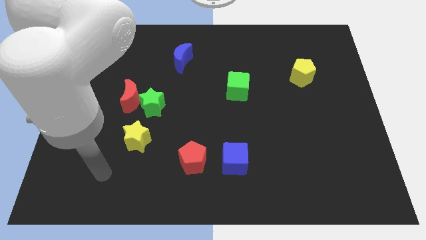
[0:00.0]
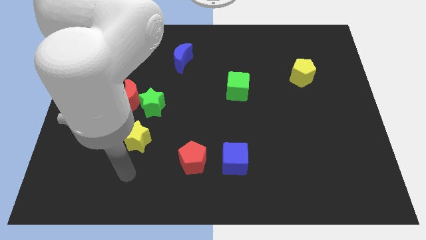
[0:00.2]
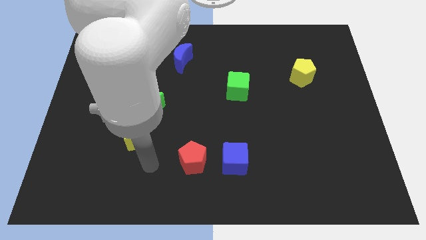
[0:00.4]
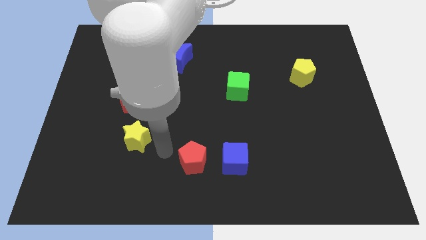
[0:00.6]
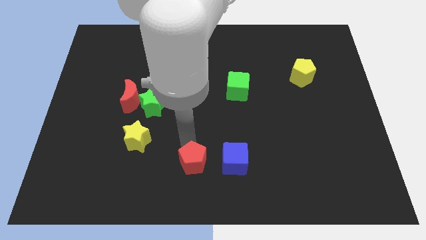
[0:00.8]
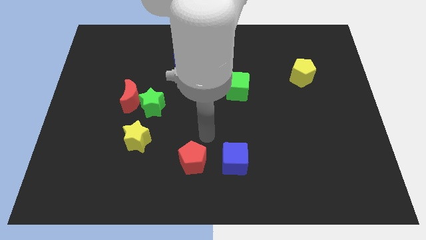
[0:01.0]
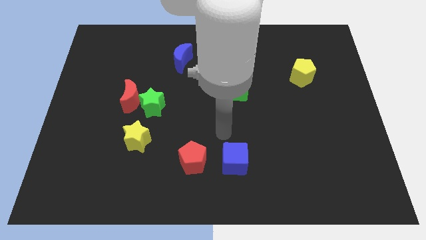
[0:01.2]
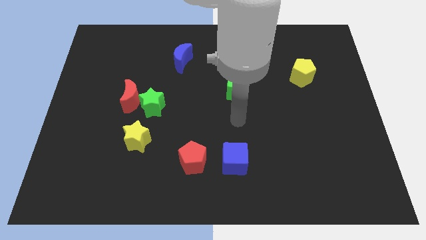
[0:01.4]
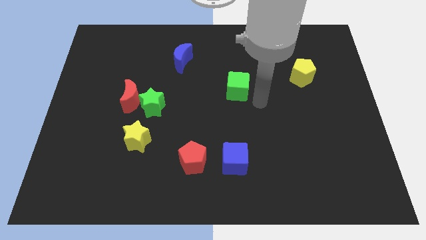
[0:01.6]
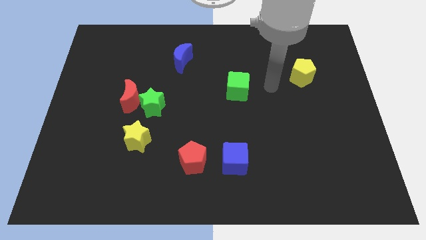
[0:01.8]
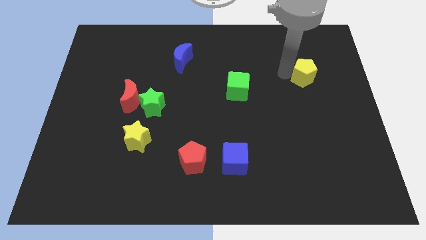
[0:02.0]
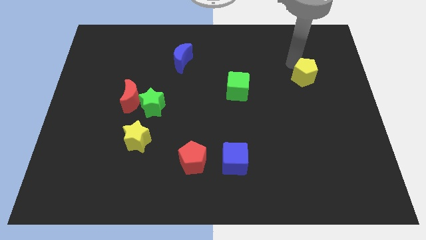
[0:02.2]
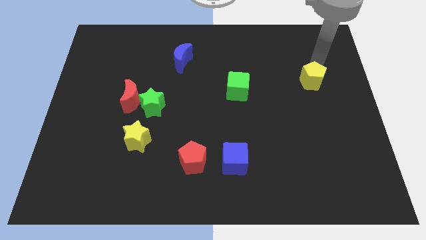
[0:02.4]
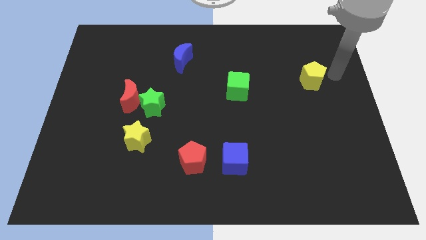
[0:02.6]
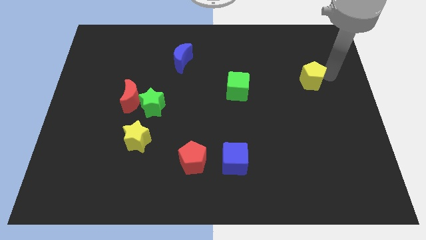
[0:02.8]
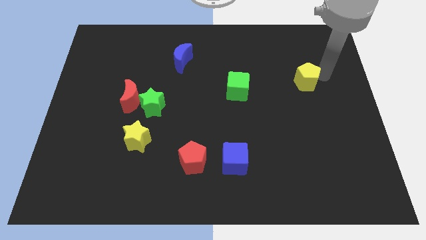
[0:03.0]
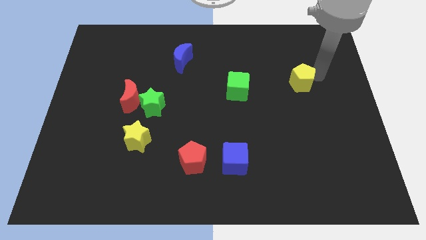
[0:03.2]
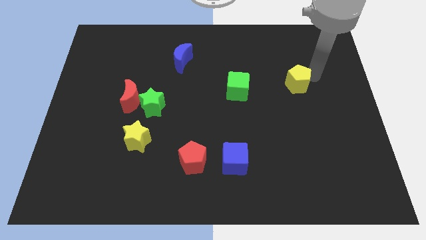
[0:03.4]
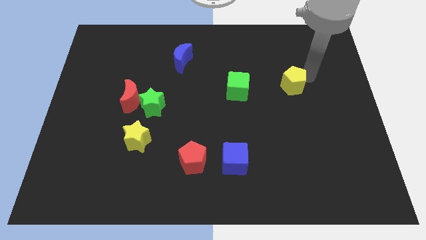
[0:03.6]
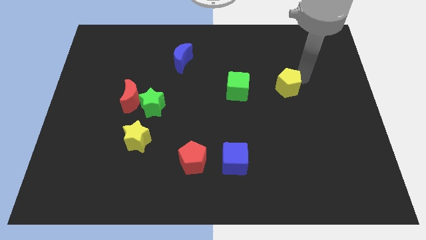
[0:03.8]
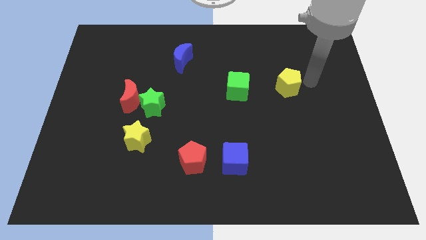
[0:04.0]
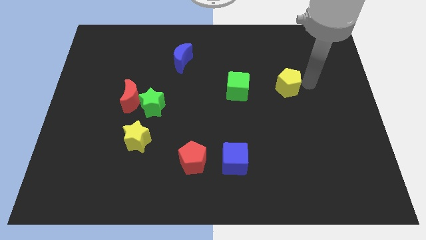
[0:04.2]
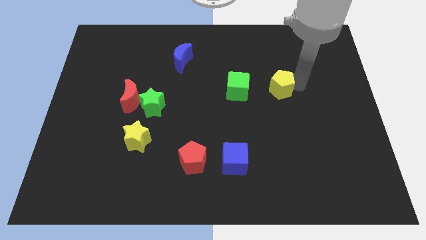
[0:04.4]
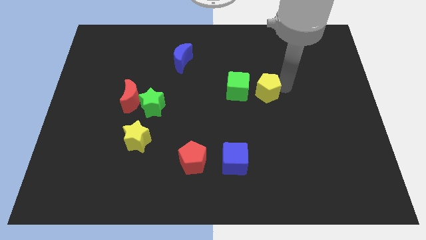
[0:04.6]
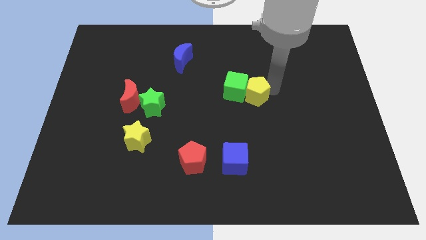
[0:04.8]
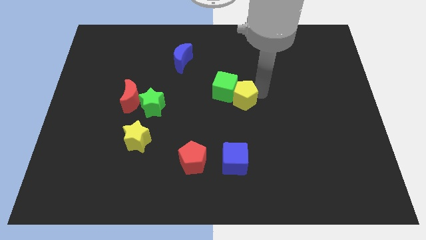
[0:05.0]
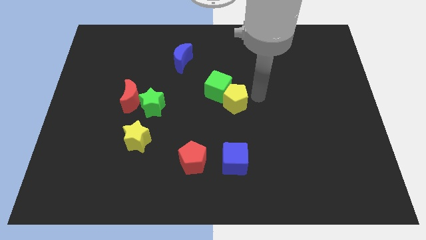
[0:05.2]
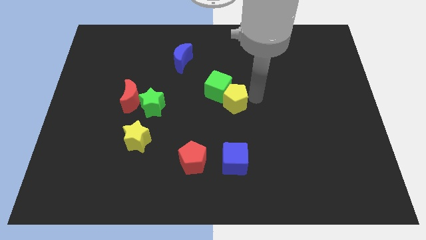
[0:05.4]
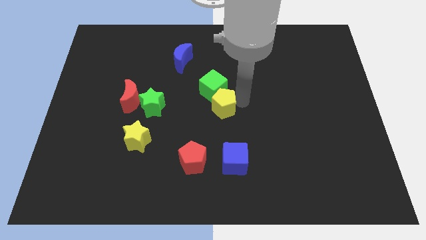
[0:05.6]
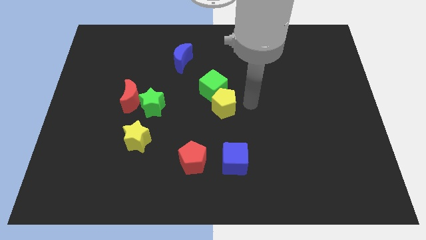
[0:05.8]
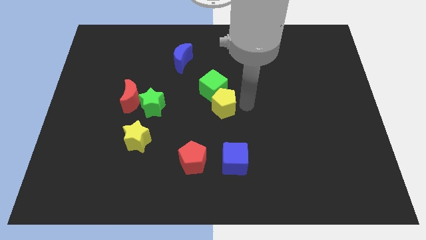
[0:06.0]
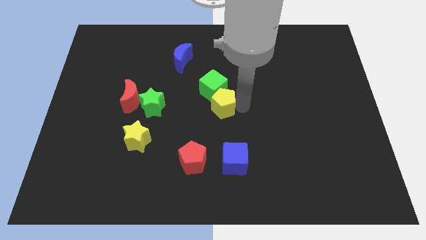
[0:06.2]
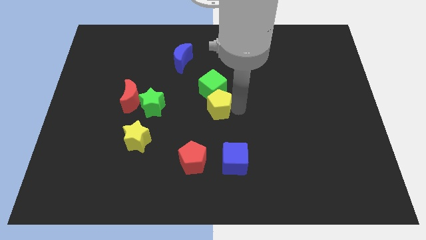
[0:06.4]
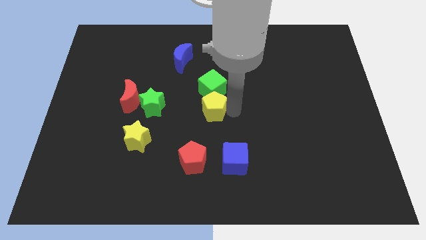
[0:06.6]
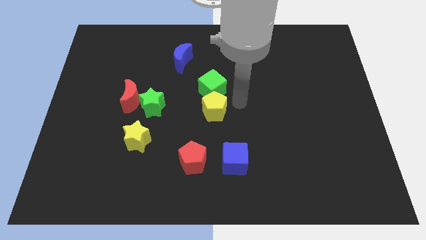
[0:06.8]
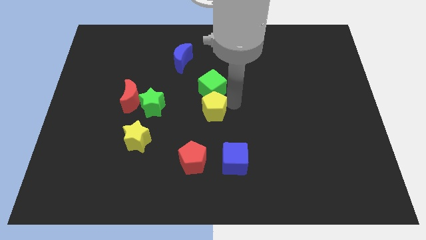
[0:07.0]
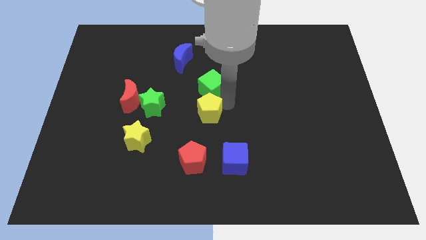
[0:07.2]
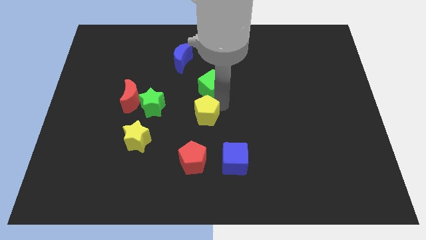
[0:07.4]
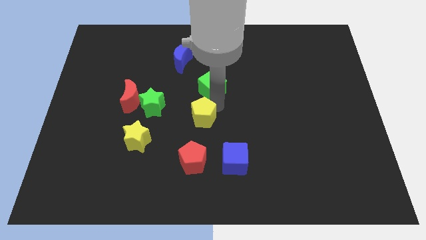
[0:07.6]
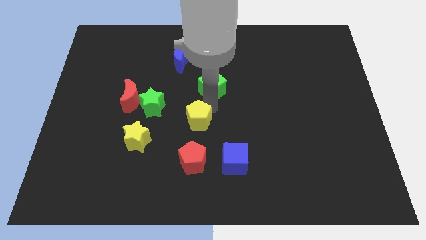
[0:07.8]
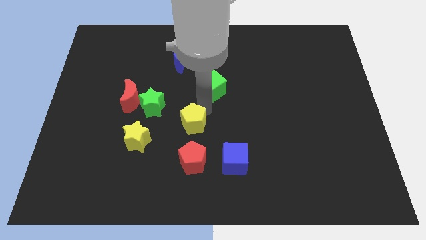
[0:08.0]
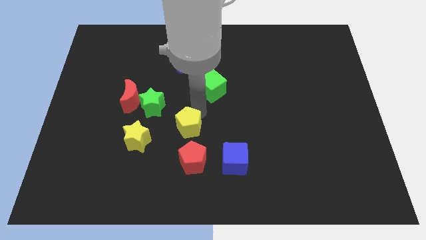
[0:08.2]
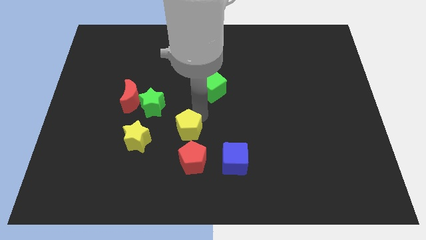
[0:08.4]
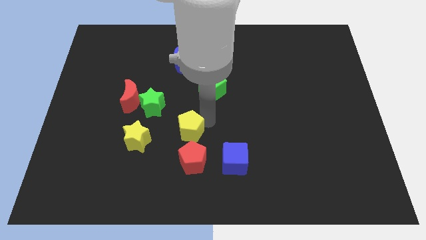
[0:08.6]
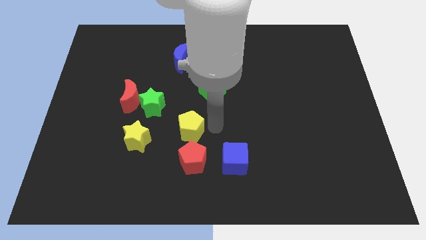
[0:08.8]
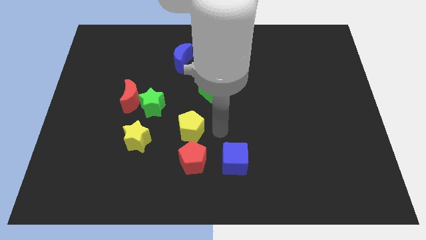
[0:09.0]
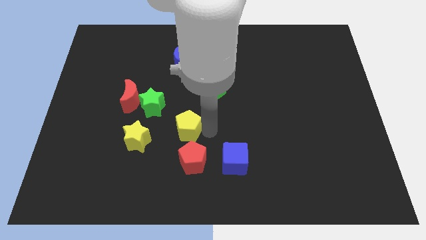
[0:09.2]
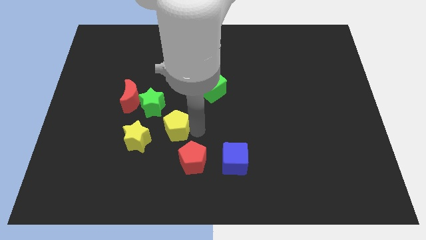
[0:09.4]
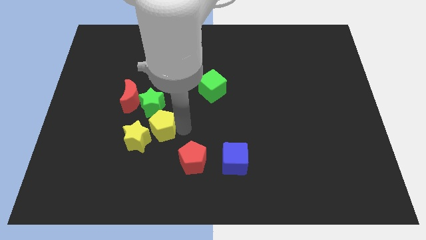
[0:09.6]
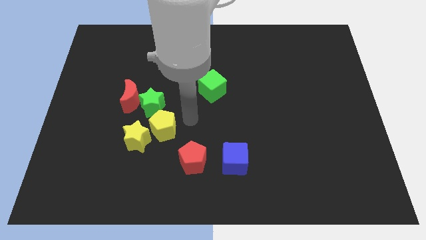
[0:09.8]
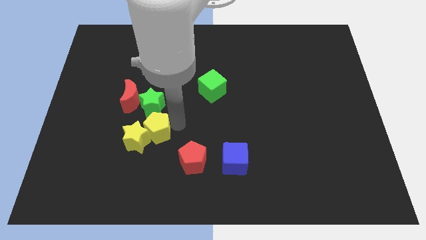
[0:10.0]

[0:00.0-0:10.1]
put the yellow pentagon towards the yellow star

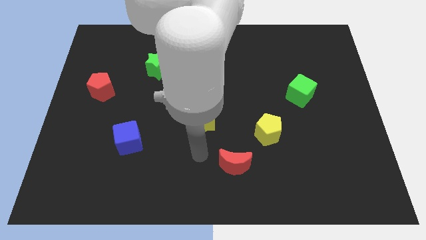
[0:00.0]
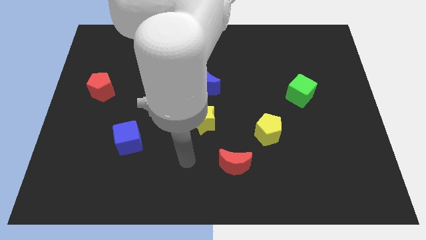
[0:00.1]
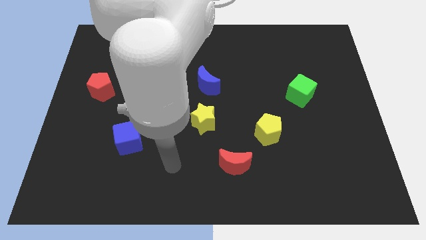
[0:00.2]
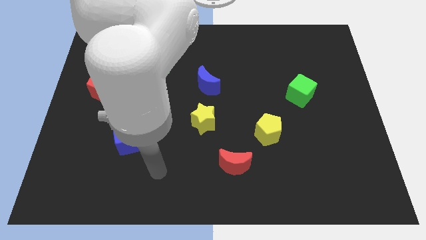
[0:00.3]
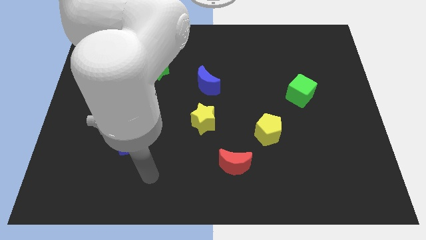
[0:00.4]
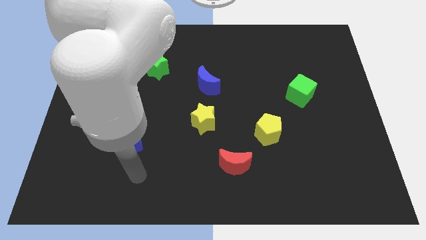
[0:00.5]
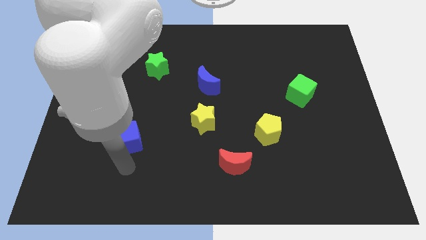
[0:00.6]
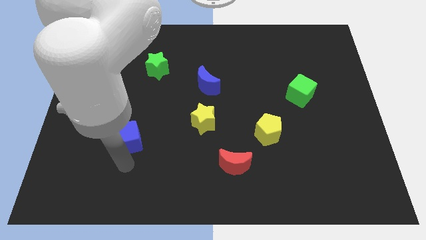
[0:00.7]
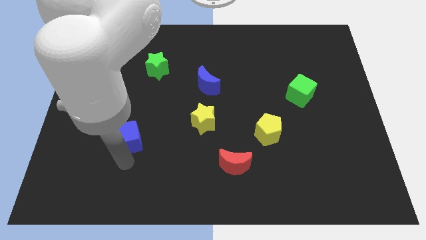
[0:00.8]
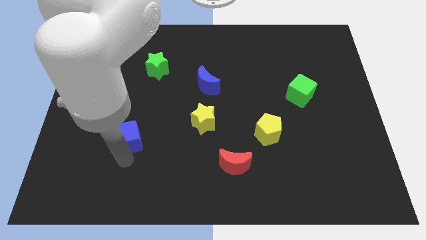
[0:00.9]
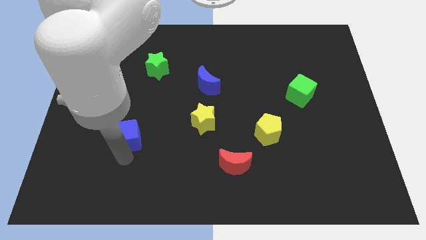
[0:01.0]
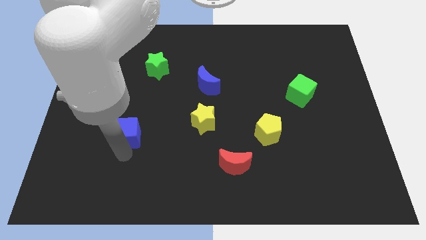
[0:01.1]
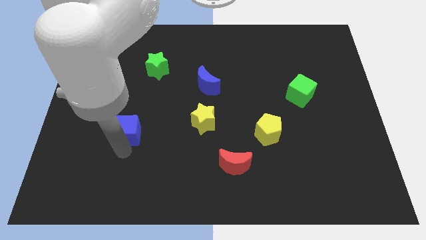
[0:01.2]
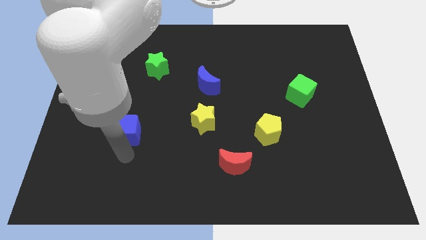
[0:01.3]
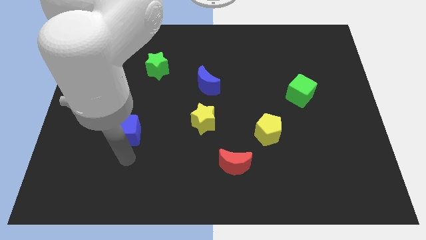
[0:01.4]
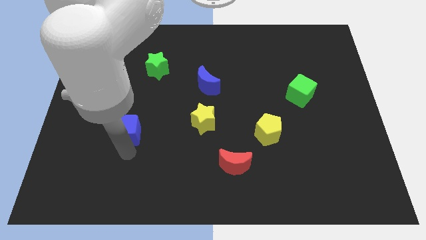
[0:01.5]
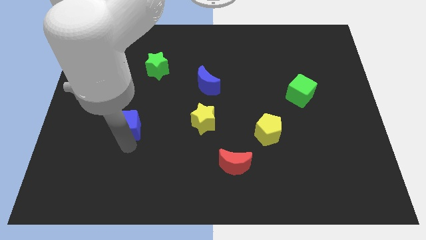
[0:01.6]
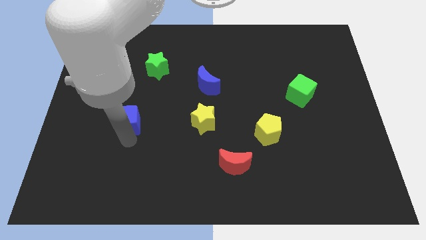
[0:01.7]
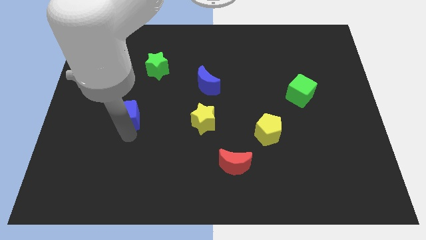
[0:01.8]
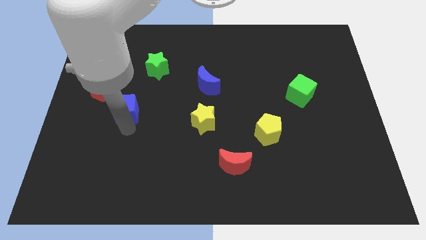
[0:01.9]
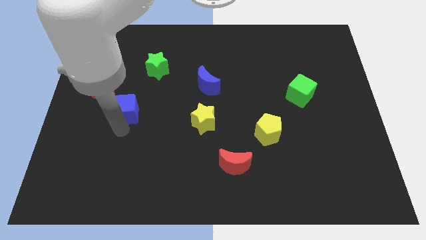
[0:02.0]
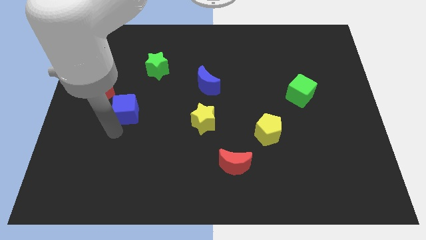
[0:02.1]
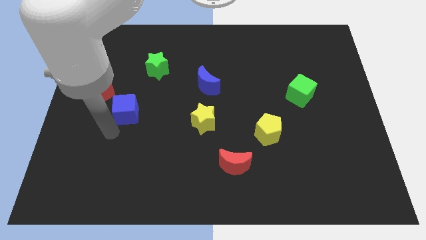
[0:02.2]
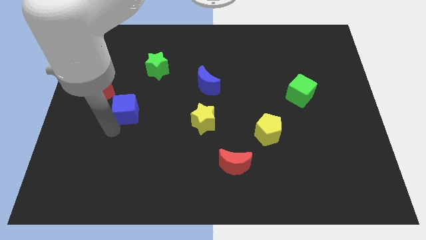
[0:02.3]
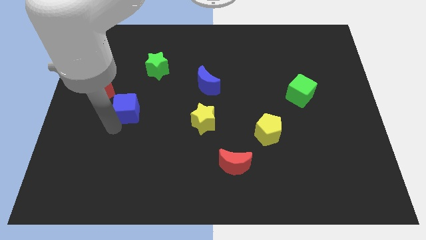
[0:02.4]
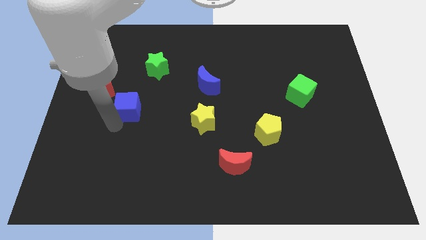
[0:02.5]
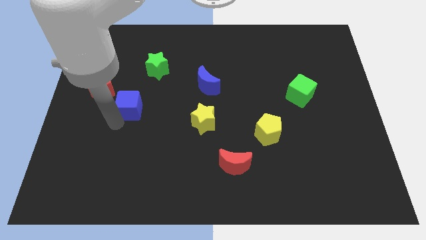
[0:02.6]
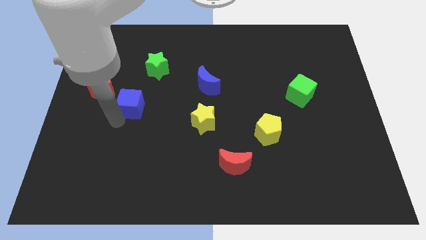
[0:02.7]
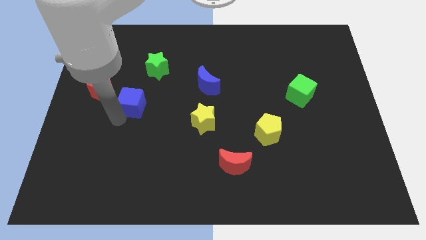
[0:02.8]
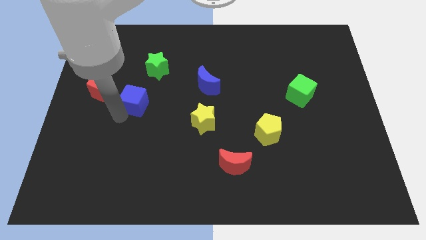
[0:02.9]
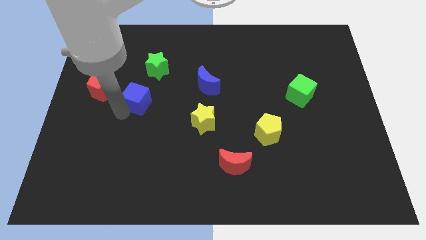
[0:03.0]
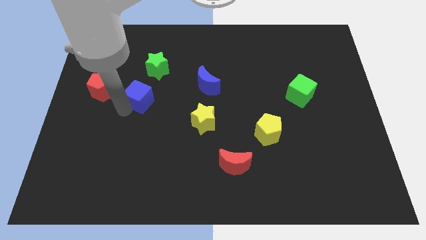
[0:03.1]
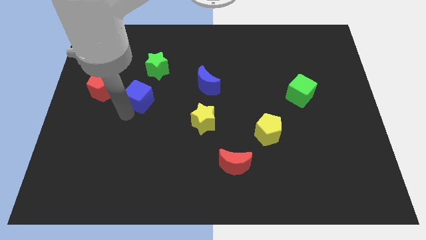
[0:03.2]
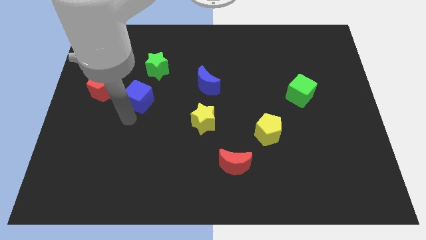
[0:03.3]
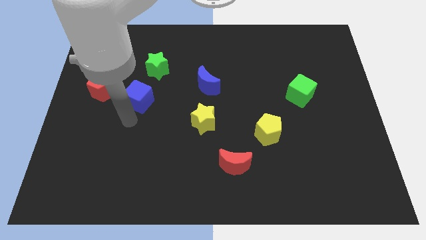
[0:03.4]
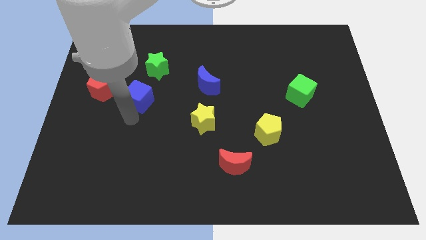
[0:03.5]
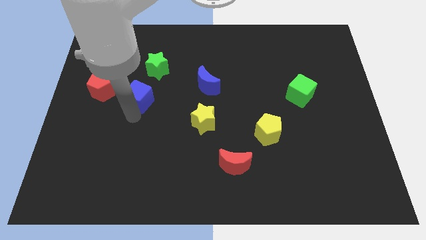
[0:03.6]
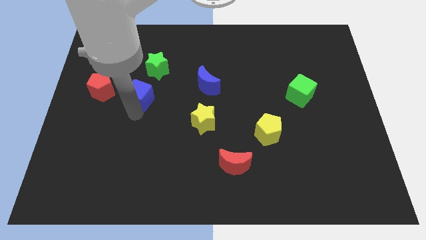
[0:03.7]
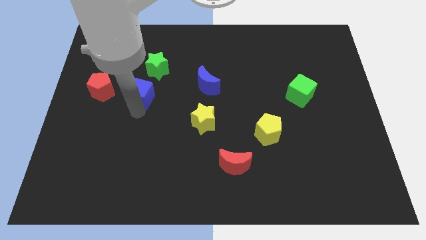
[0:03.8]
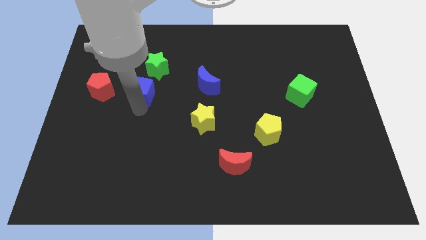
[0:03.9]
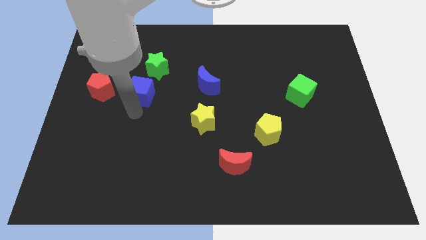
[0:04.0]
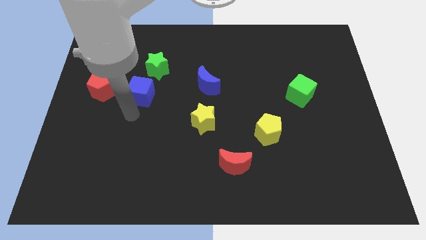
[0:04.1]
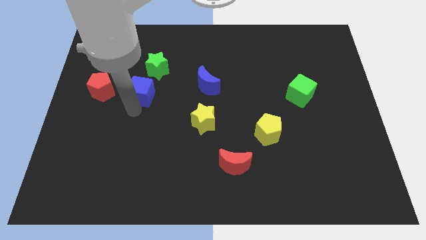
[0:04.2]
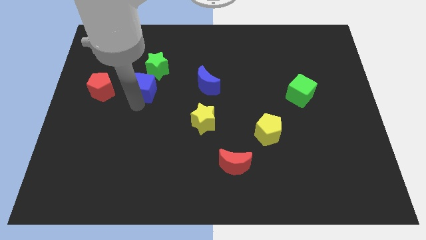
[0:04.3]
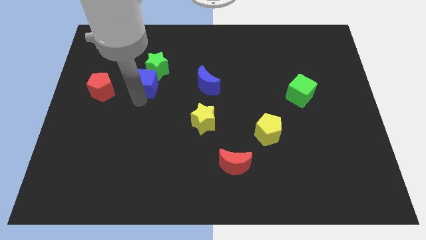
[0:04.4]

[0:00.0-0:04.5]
slide the blue cube towards the green star
